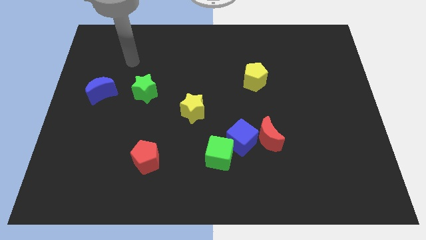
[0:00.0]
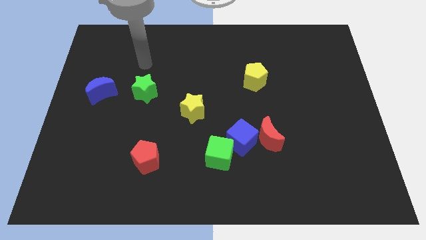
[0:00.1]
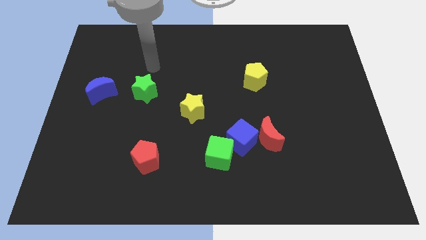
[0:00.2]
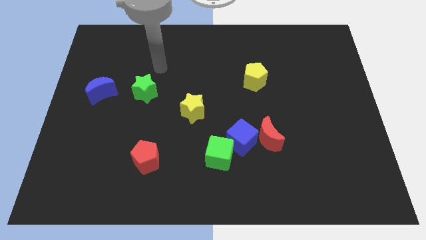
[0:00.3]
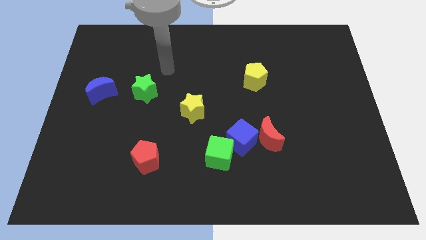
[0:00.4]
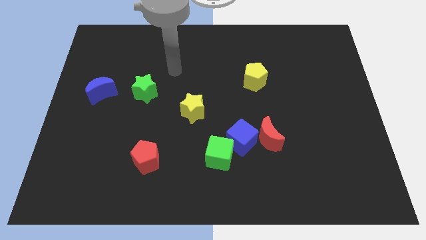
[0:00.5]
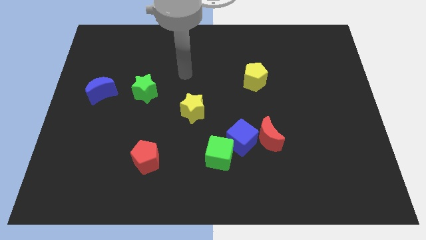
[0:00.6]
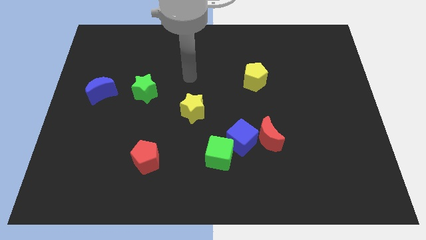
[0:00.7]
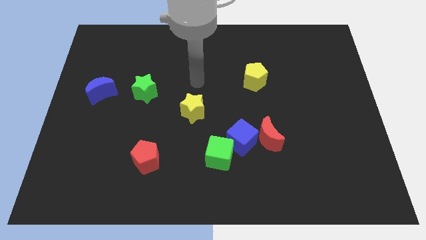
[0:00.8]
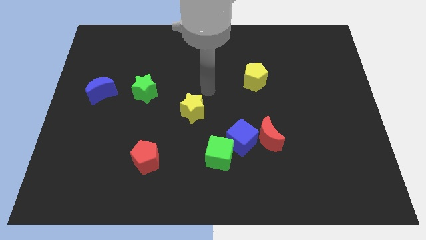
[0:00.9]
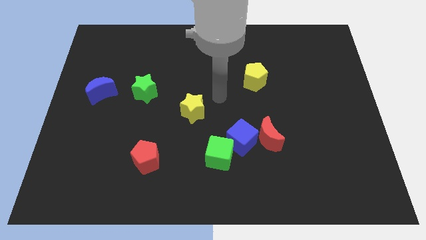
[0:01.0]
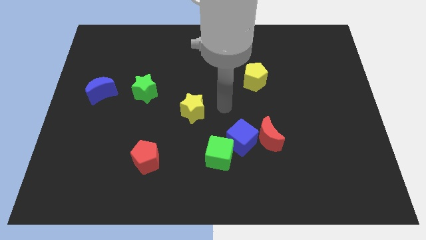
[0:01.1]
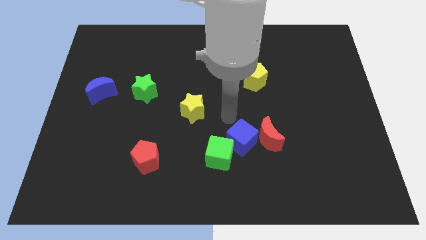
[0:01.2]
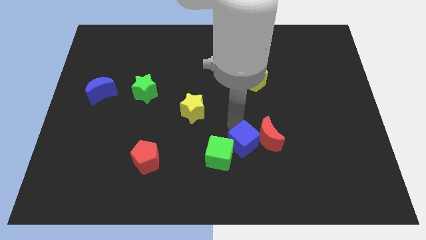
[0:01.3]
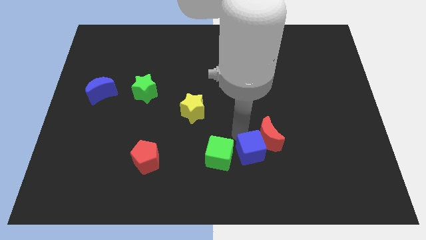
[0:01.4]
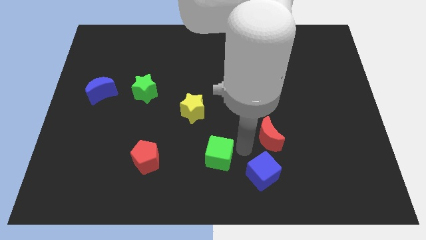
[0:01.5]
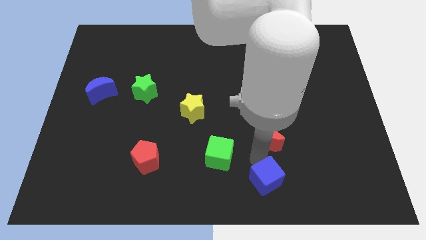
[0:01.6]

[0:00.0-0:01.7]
pull the red moon apart from the blue cube

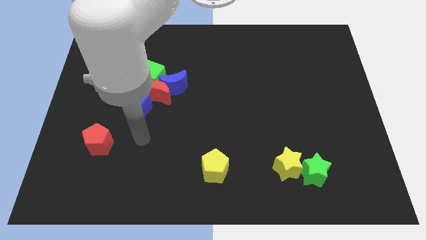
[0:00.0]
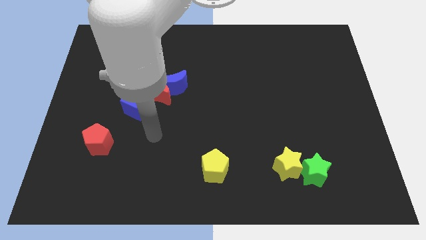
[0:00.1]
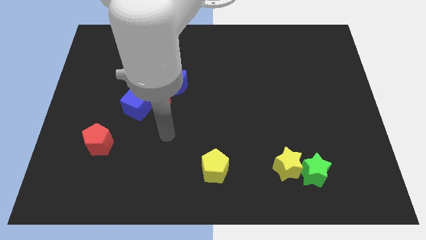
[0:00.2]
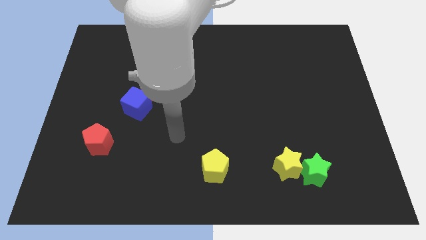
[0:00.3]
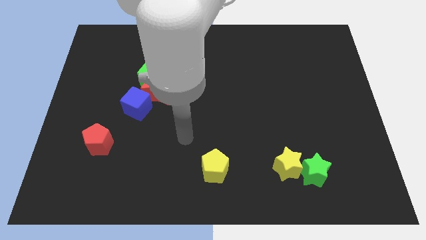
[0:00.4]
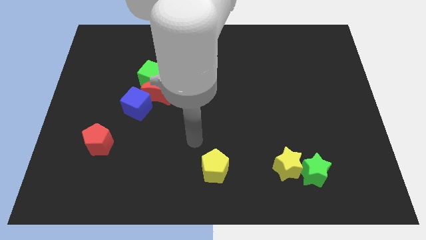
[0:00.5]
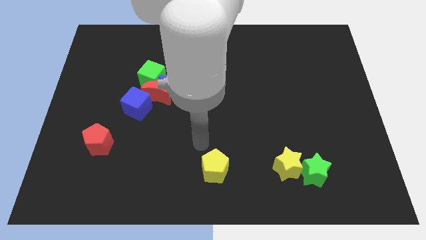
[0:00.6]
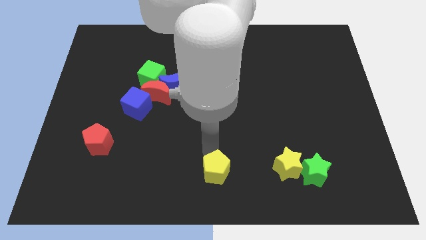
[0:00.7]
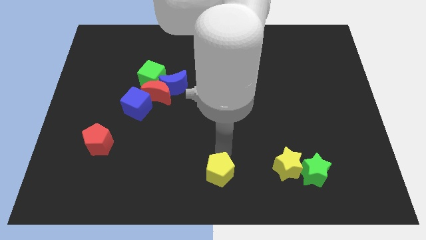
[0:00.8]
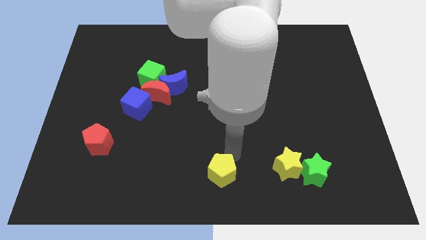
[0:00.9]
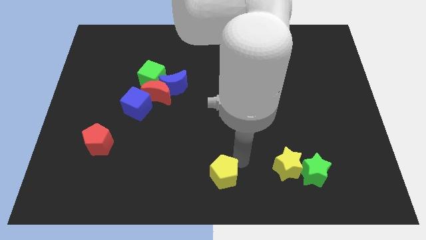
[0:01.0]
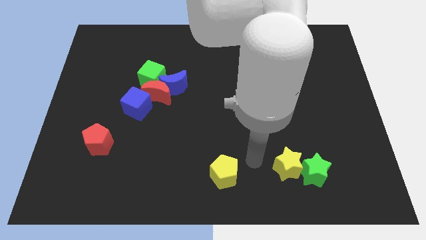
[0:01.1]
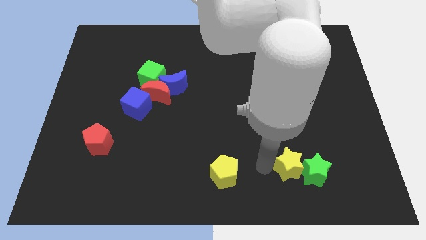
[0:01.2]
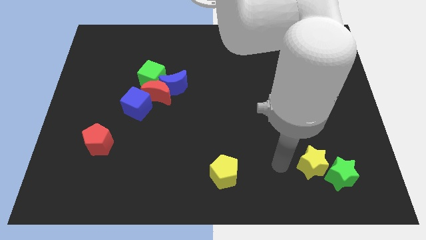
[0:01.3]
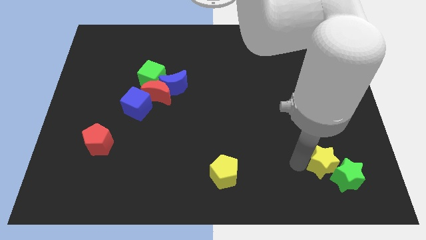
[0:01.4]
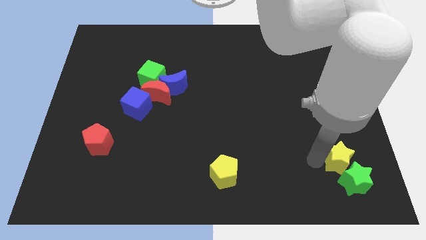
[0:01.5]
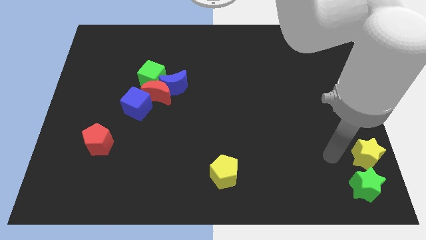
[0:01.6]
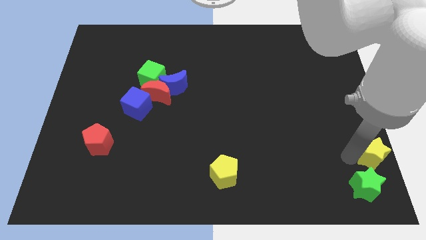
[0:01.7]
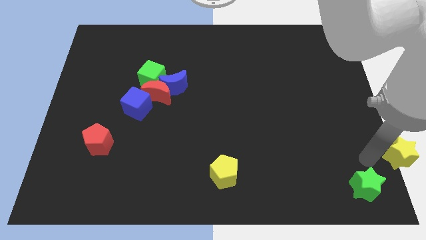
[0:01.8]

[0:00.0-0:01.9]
pull the green star apart from the yellow star

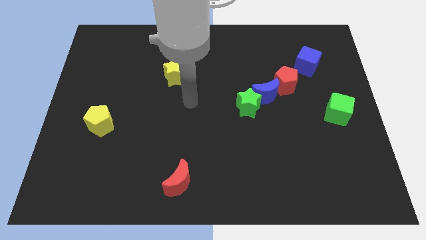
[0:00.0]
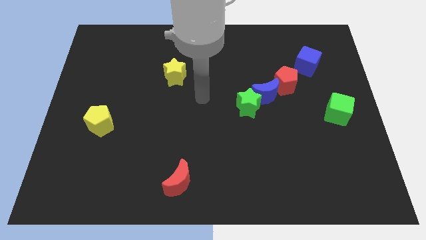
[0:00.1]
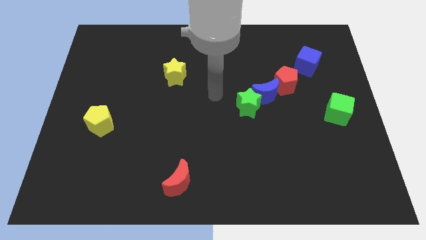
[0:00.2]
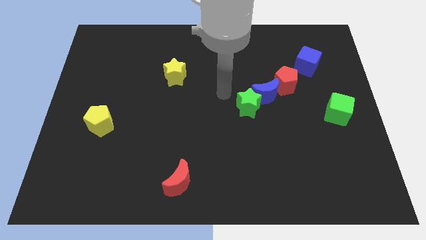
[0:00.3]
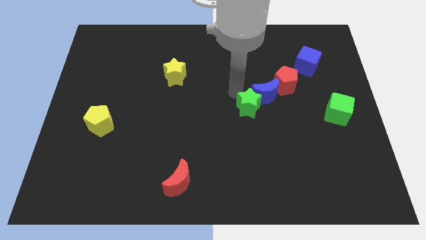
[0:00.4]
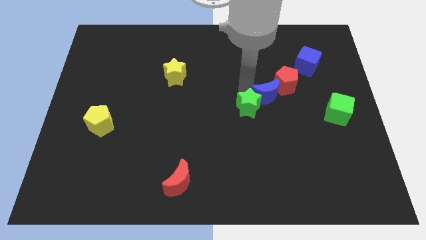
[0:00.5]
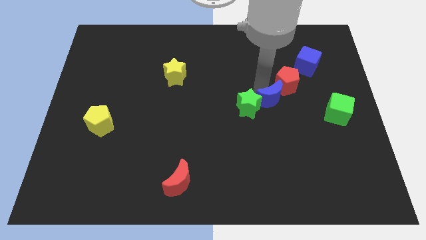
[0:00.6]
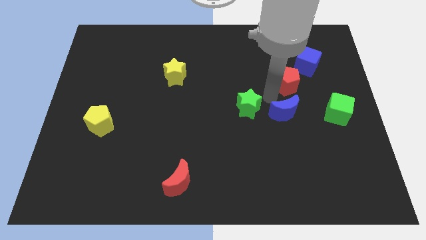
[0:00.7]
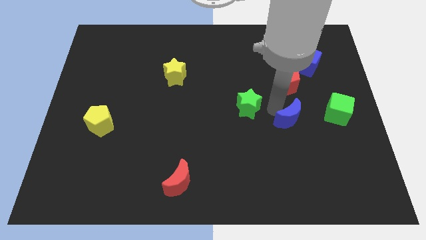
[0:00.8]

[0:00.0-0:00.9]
move the green star away from the blue moon

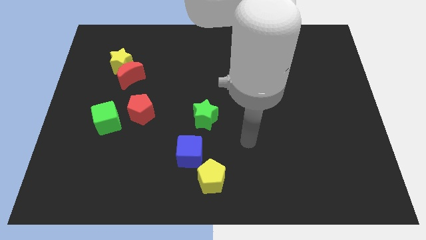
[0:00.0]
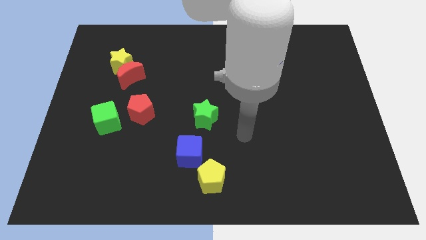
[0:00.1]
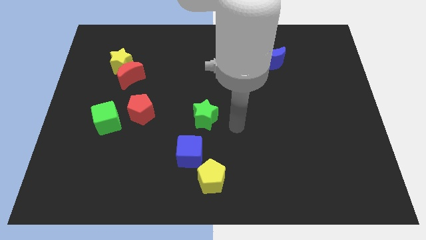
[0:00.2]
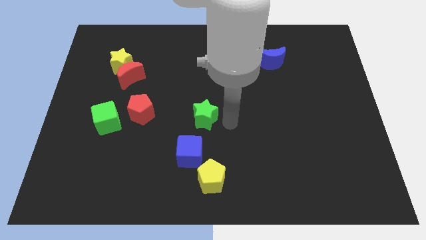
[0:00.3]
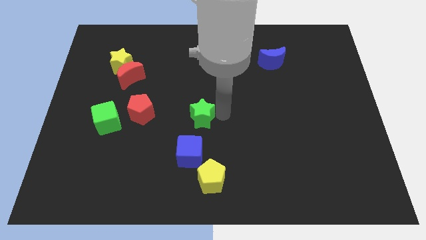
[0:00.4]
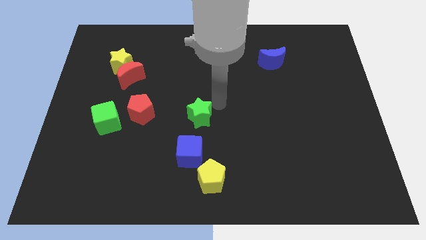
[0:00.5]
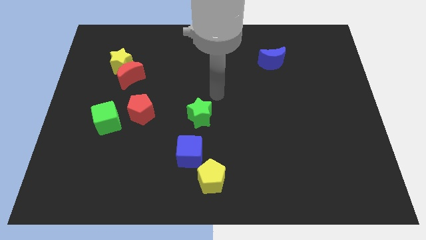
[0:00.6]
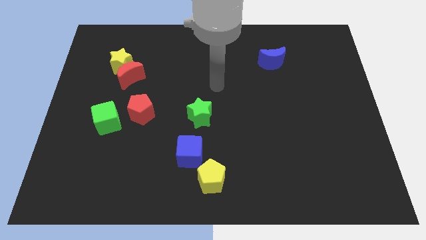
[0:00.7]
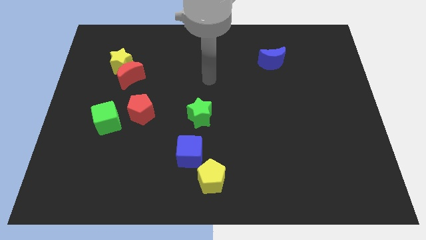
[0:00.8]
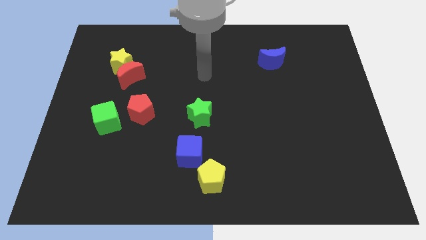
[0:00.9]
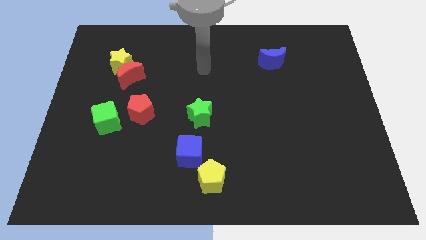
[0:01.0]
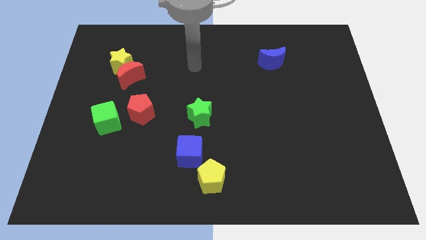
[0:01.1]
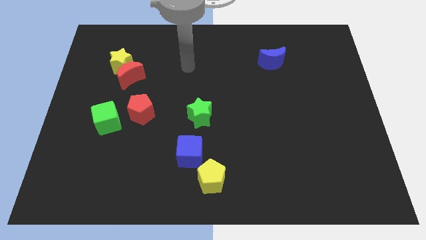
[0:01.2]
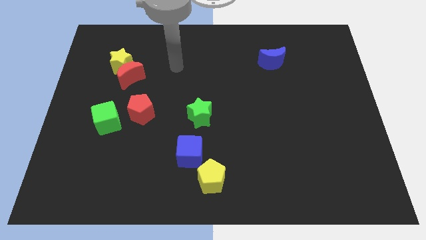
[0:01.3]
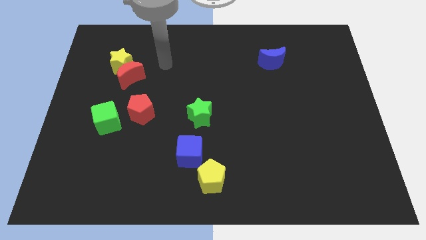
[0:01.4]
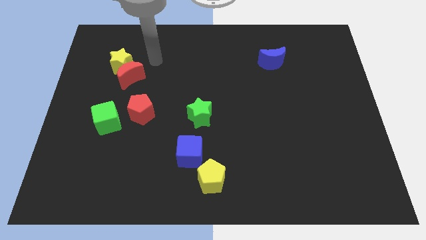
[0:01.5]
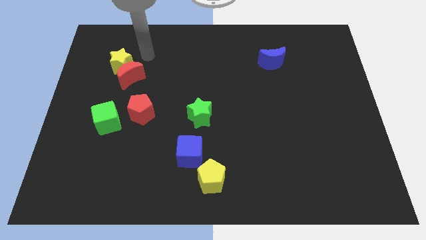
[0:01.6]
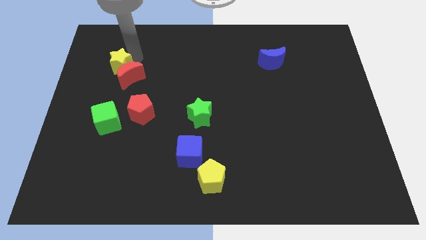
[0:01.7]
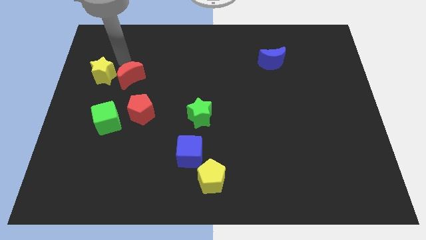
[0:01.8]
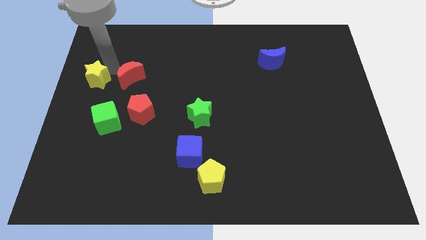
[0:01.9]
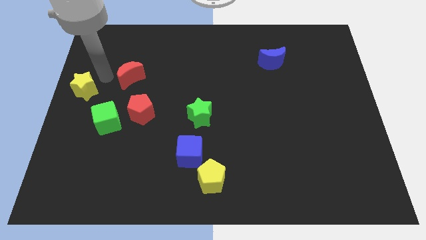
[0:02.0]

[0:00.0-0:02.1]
pull the red moon apart from the yellow star

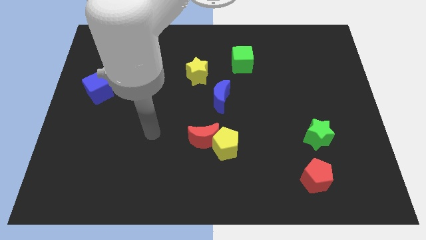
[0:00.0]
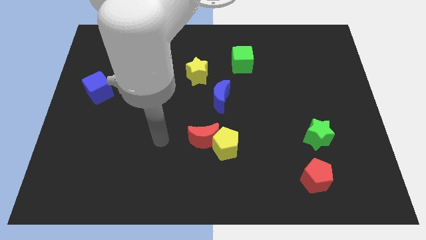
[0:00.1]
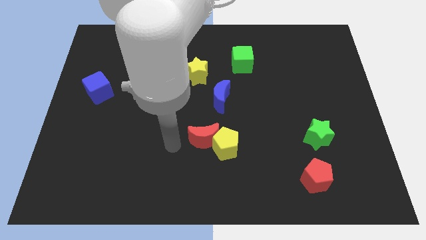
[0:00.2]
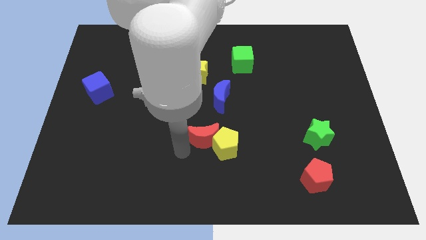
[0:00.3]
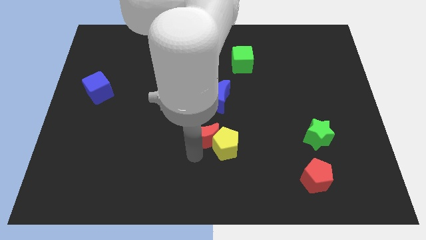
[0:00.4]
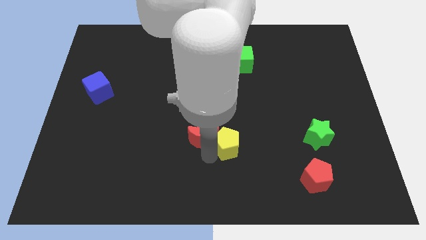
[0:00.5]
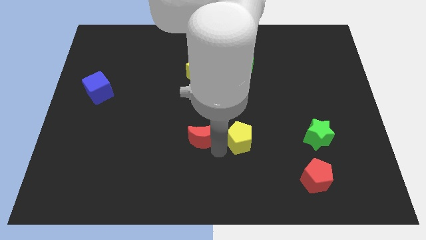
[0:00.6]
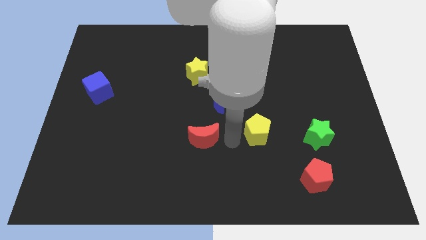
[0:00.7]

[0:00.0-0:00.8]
separate the red moon from the yellow pentagon

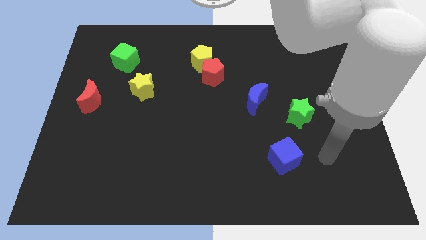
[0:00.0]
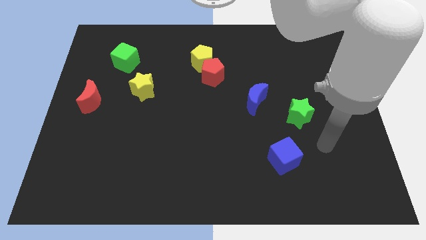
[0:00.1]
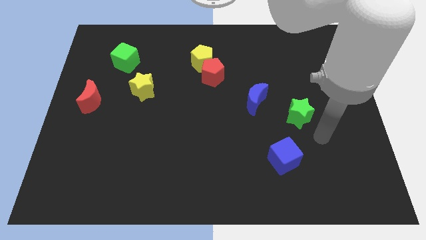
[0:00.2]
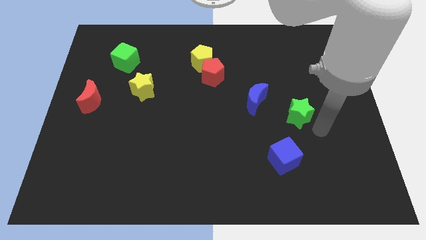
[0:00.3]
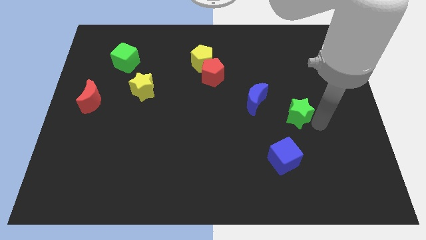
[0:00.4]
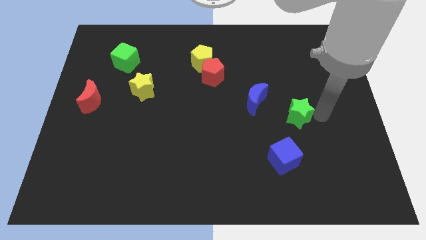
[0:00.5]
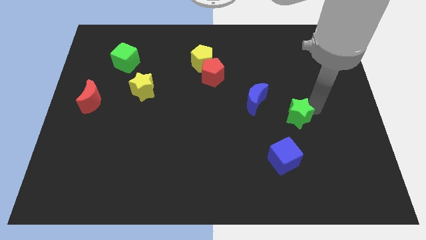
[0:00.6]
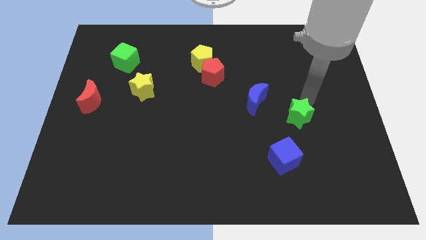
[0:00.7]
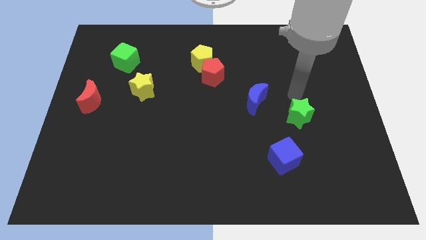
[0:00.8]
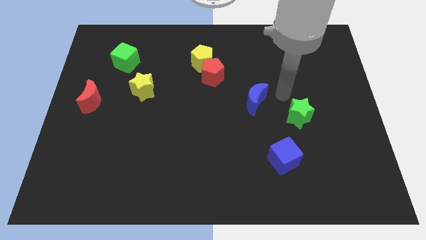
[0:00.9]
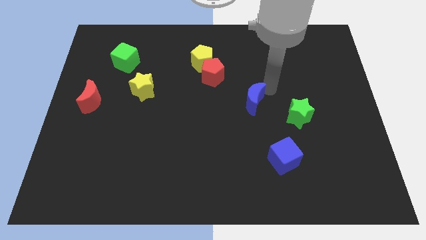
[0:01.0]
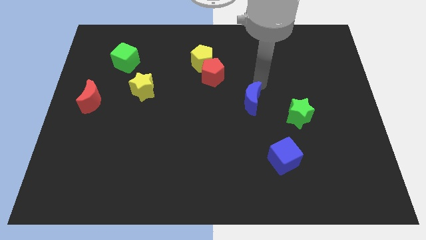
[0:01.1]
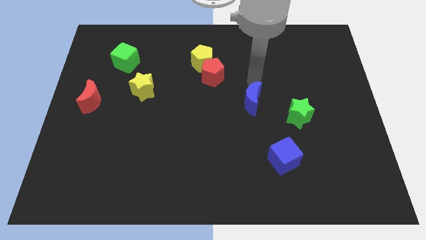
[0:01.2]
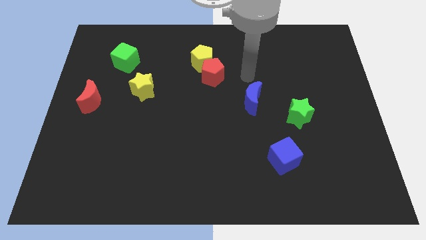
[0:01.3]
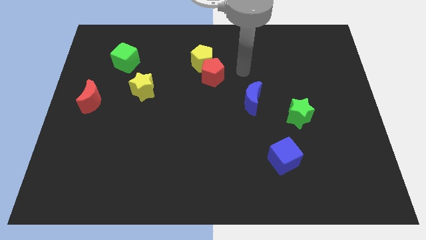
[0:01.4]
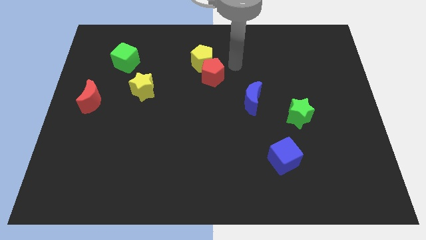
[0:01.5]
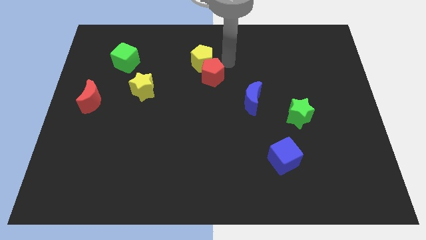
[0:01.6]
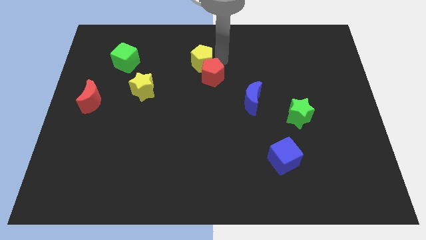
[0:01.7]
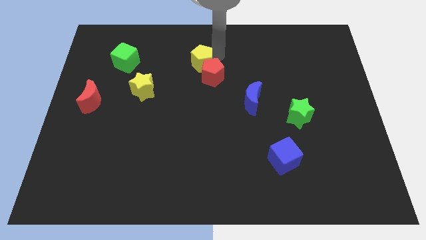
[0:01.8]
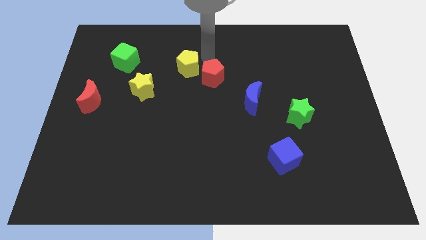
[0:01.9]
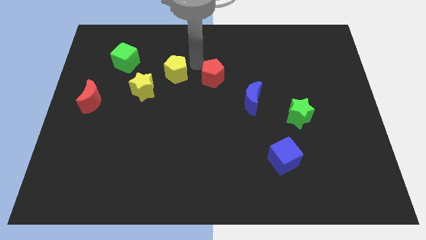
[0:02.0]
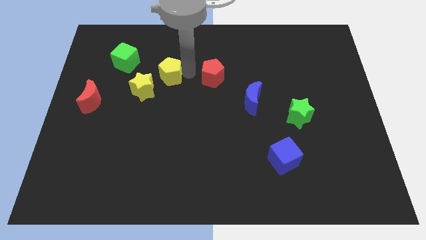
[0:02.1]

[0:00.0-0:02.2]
pull the red pentagon apart from the yellow pentagon
